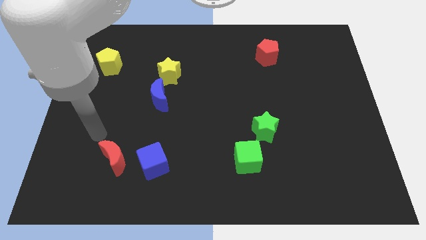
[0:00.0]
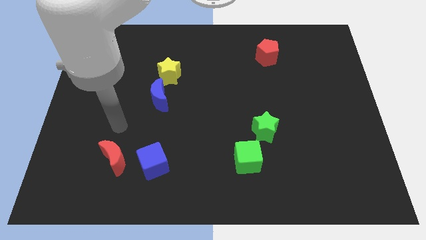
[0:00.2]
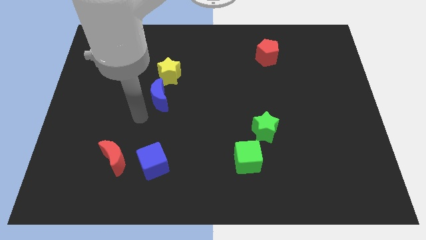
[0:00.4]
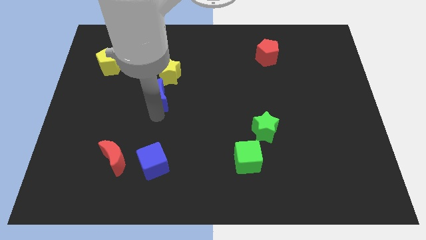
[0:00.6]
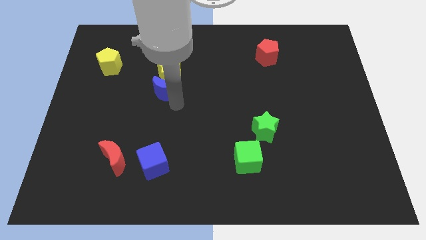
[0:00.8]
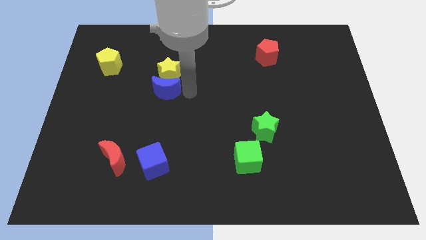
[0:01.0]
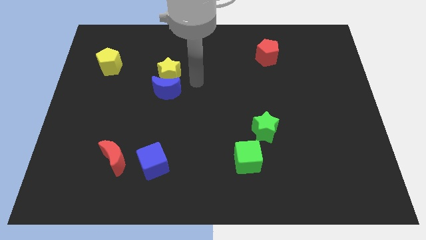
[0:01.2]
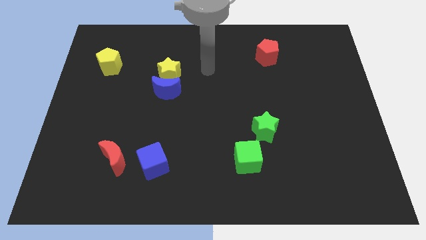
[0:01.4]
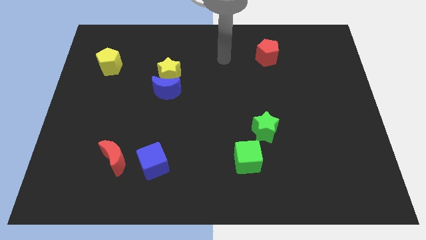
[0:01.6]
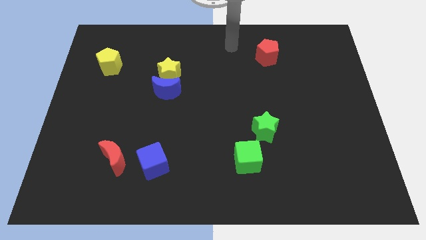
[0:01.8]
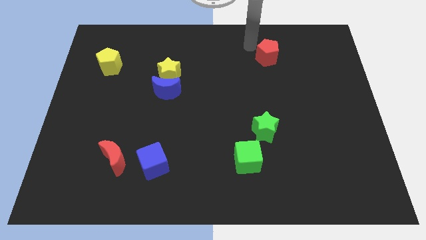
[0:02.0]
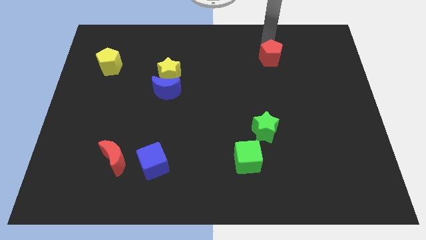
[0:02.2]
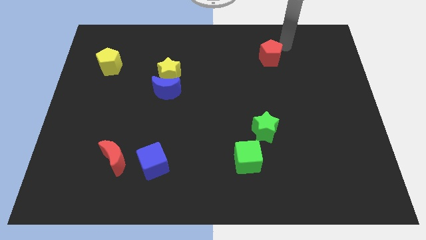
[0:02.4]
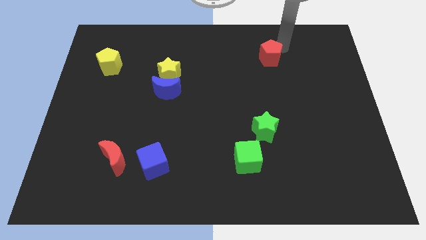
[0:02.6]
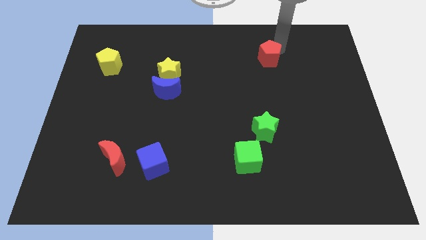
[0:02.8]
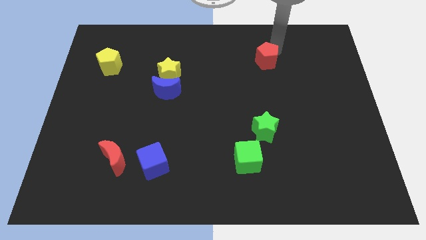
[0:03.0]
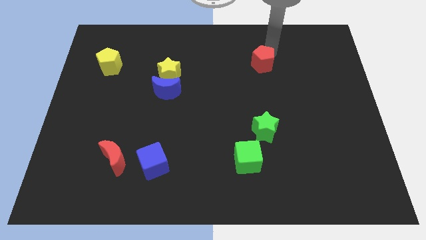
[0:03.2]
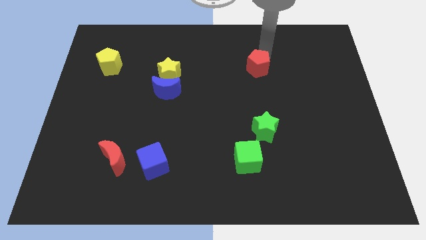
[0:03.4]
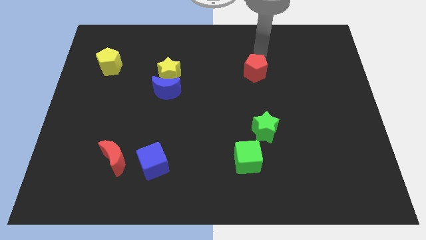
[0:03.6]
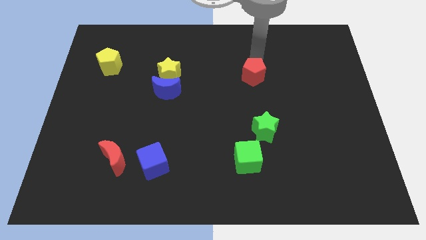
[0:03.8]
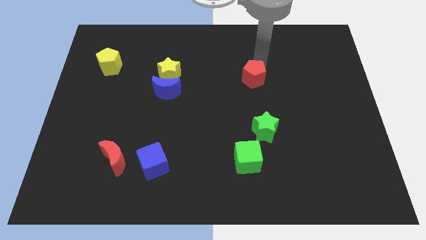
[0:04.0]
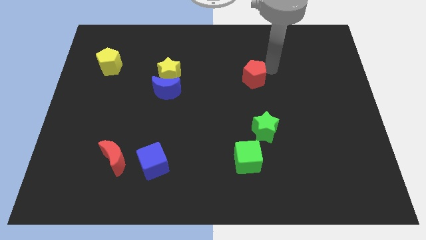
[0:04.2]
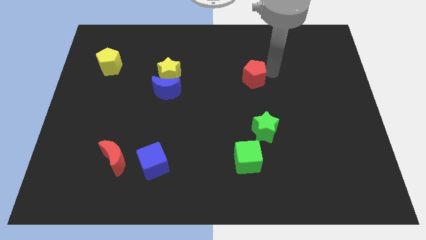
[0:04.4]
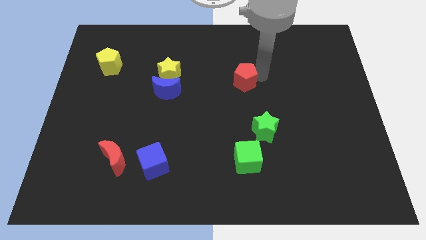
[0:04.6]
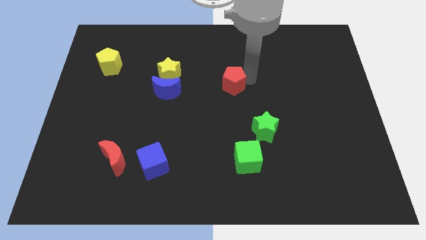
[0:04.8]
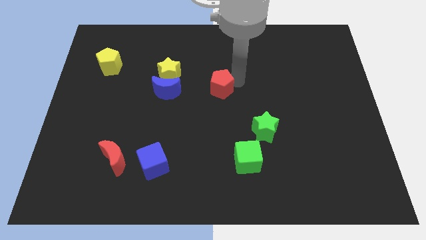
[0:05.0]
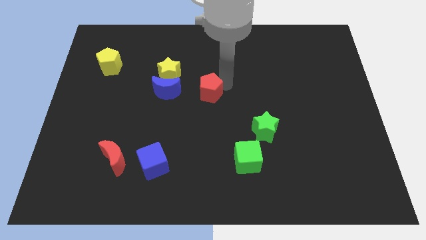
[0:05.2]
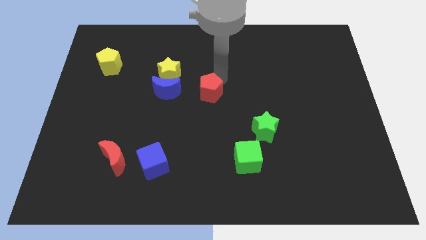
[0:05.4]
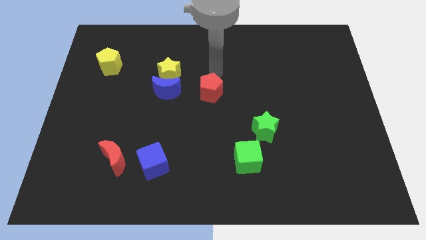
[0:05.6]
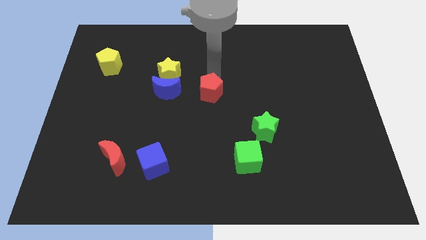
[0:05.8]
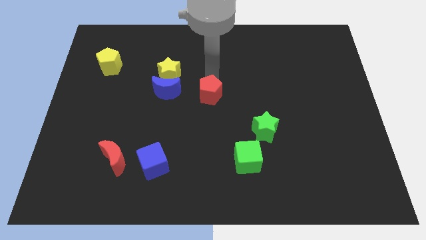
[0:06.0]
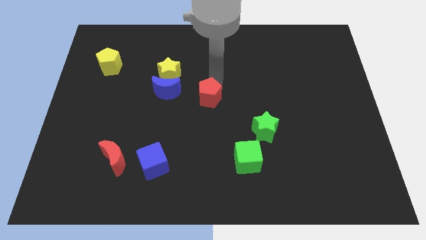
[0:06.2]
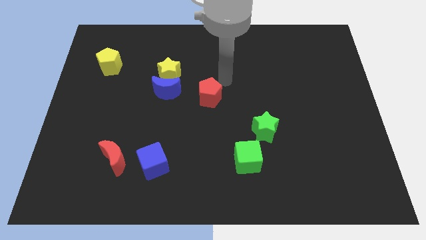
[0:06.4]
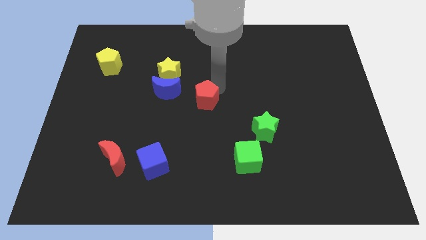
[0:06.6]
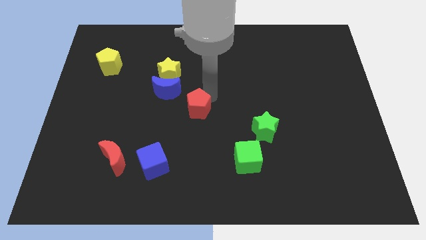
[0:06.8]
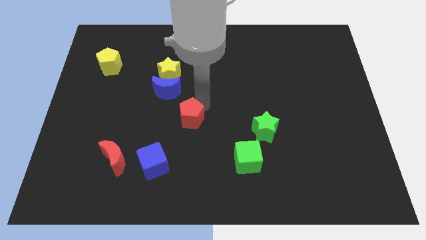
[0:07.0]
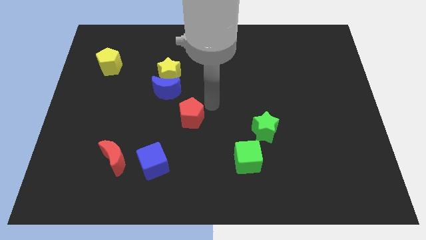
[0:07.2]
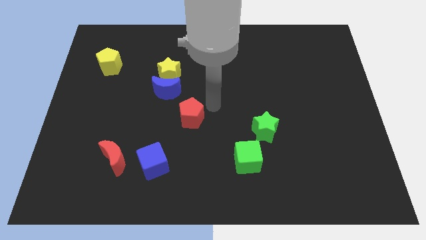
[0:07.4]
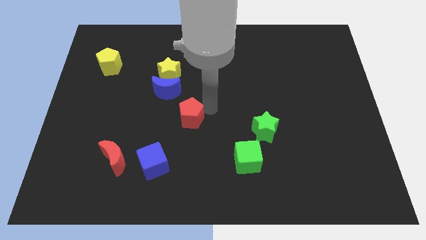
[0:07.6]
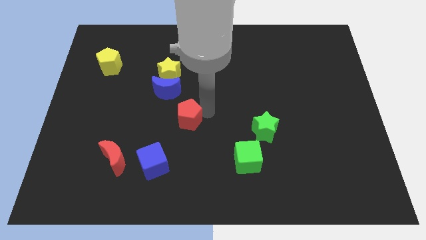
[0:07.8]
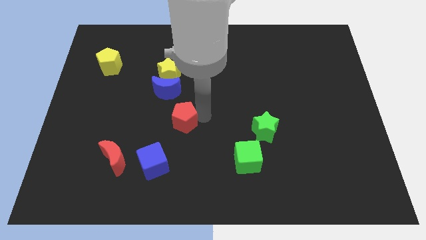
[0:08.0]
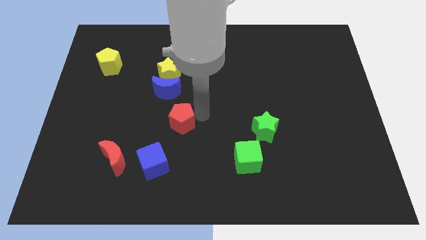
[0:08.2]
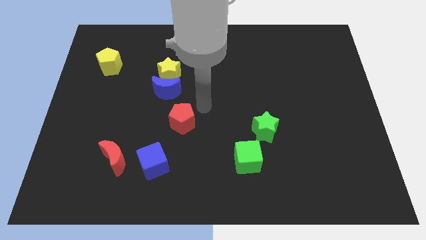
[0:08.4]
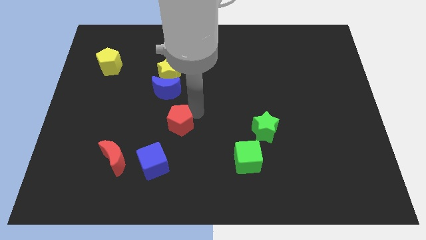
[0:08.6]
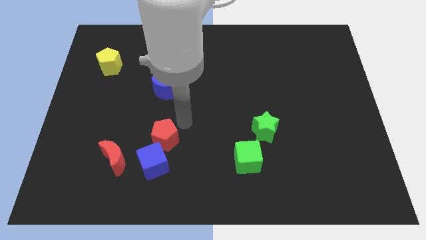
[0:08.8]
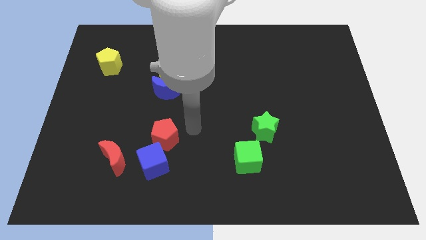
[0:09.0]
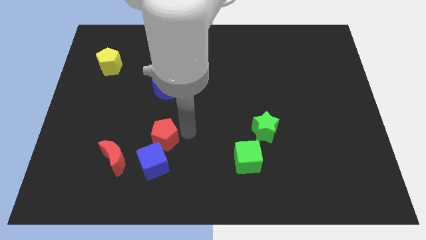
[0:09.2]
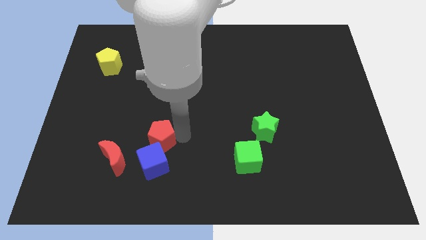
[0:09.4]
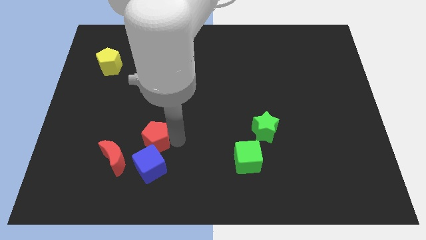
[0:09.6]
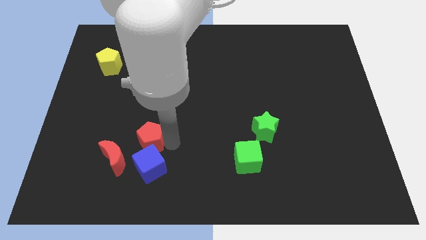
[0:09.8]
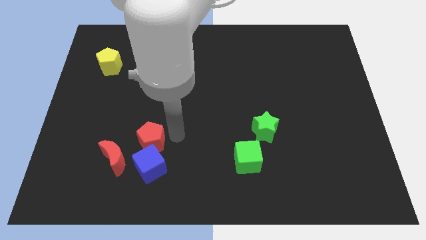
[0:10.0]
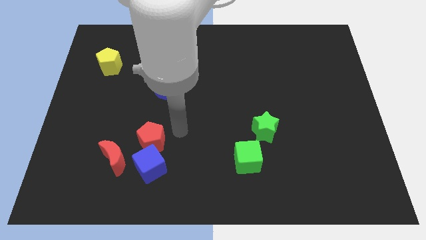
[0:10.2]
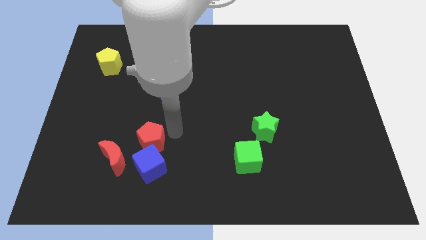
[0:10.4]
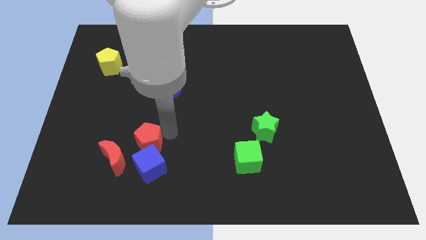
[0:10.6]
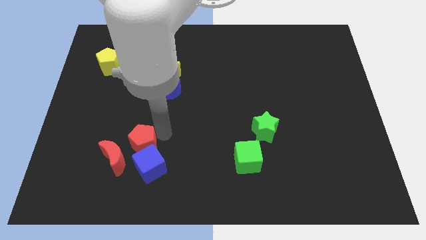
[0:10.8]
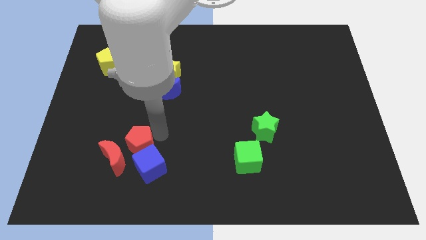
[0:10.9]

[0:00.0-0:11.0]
move the red pentagon next to the red moon

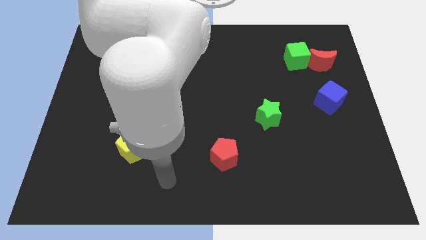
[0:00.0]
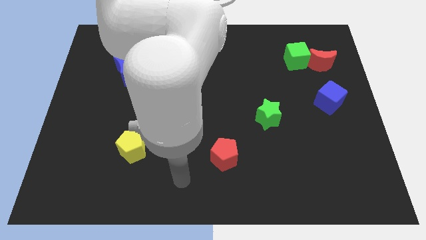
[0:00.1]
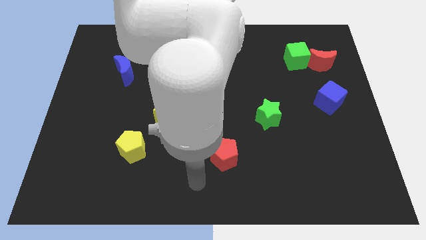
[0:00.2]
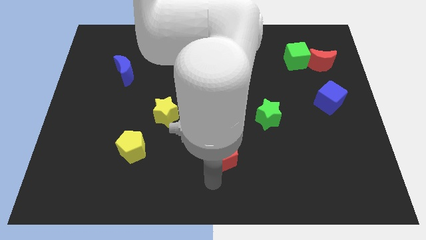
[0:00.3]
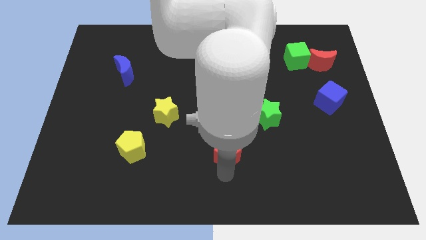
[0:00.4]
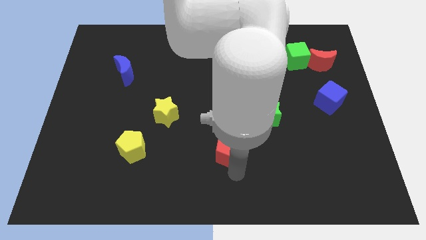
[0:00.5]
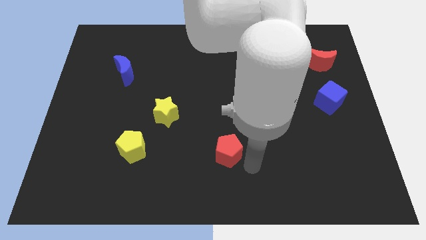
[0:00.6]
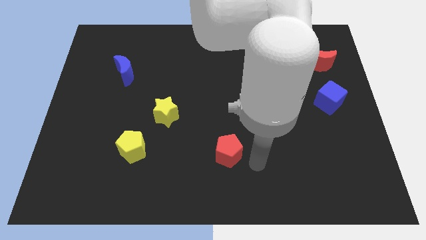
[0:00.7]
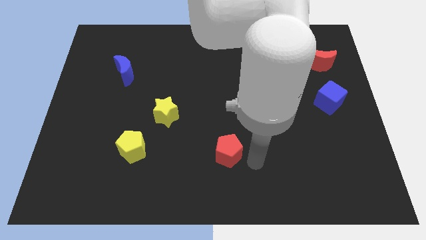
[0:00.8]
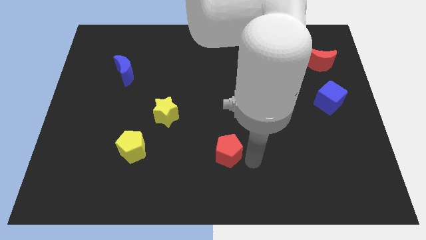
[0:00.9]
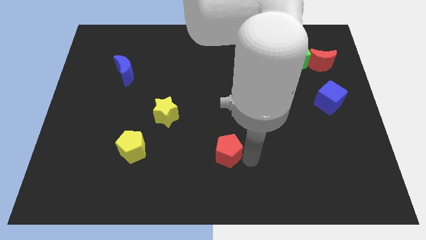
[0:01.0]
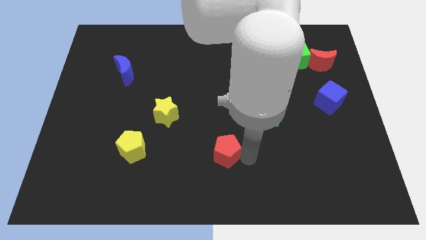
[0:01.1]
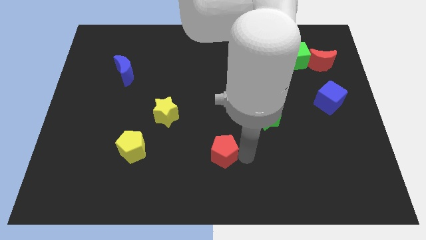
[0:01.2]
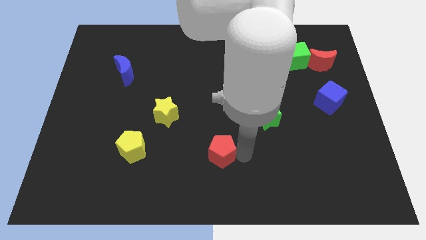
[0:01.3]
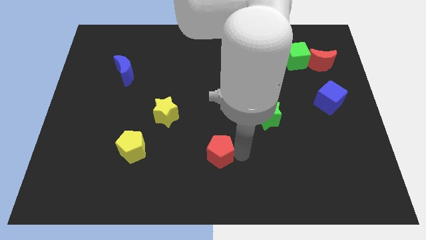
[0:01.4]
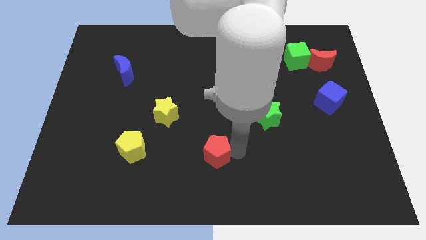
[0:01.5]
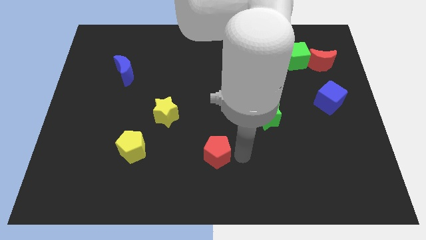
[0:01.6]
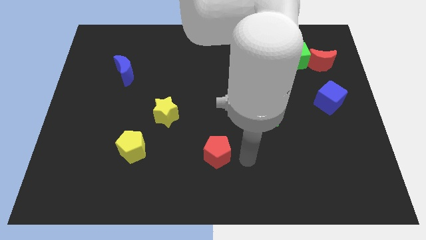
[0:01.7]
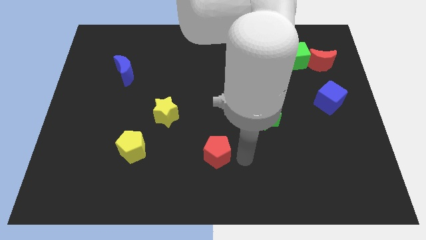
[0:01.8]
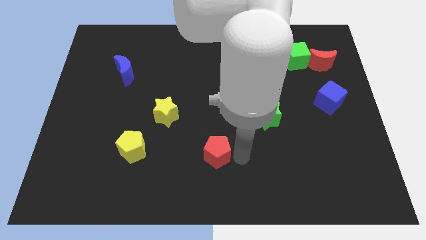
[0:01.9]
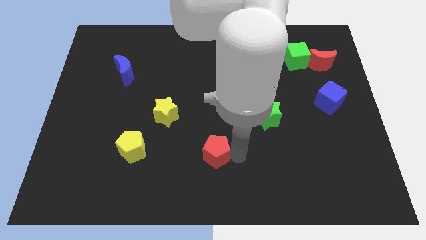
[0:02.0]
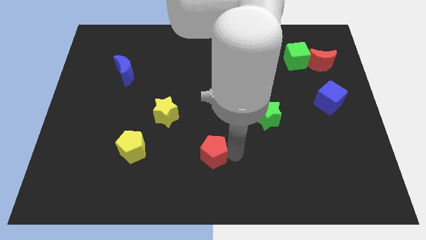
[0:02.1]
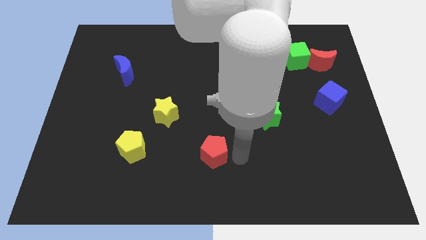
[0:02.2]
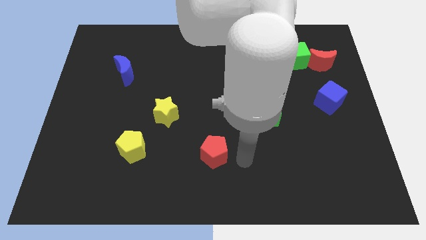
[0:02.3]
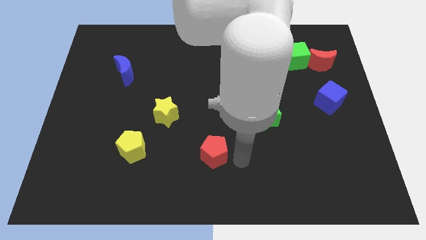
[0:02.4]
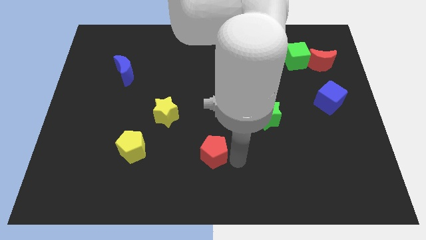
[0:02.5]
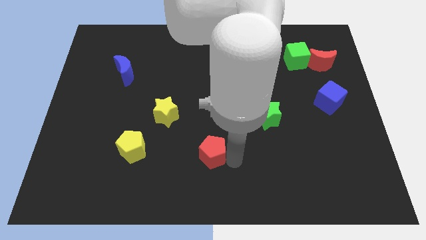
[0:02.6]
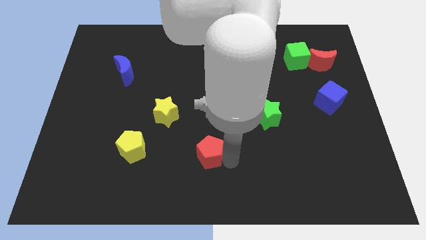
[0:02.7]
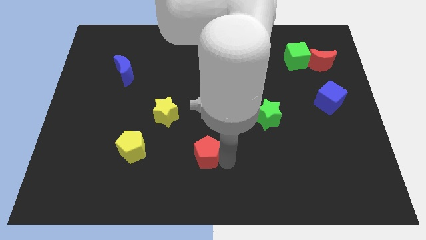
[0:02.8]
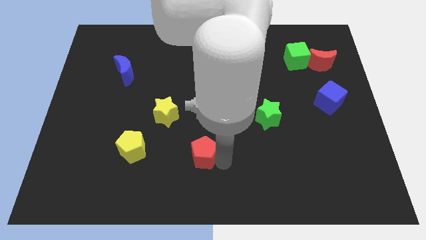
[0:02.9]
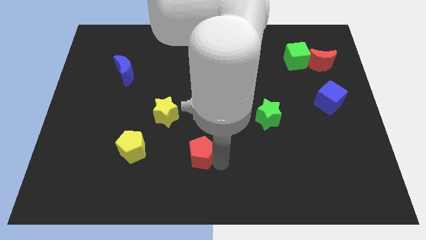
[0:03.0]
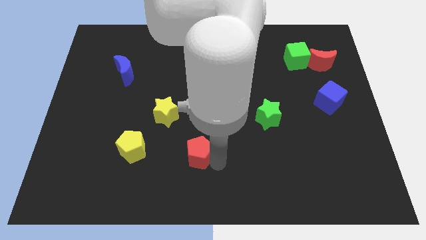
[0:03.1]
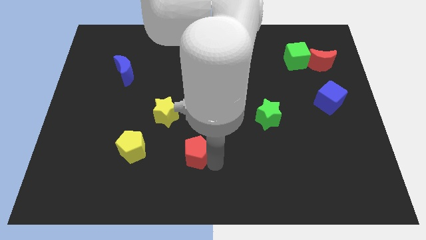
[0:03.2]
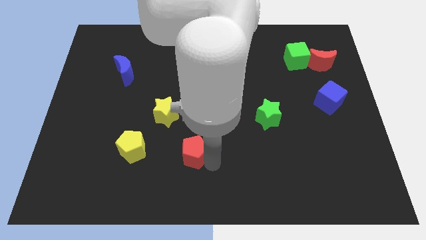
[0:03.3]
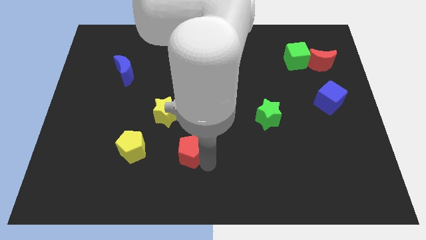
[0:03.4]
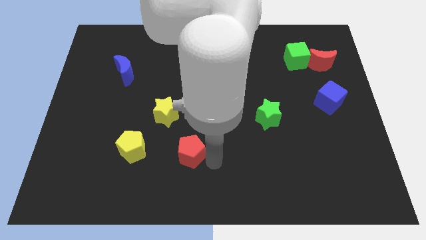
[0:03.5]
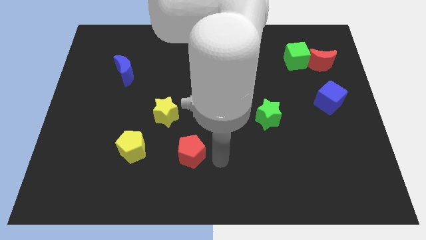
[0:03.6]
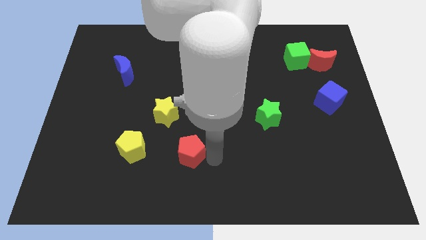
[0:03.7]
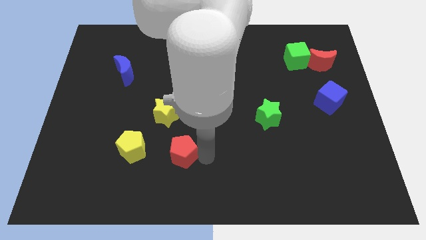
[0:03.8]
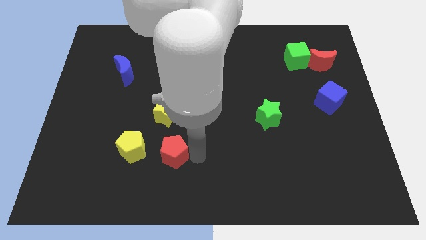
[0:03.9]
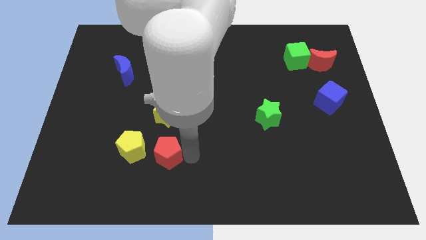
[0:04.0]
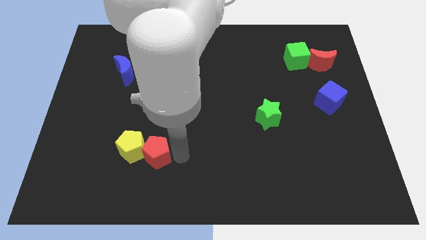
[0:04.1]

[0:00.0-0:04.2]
push the red pentagon towards the yellow pentagon
